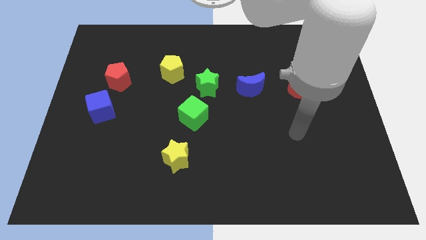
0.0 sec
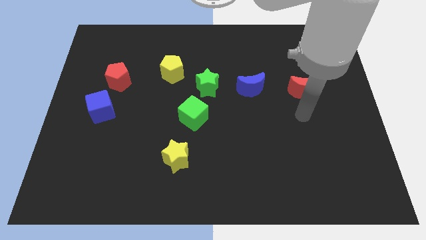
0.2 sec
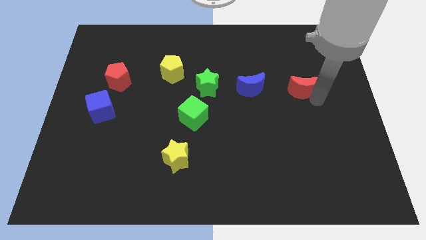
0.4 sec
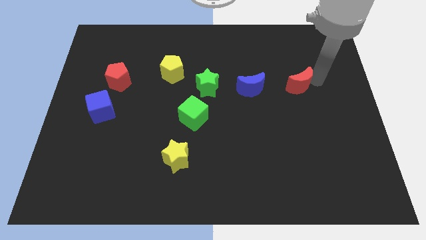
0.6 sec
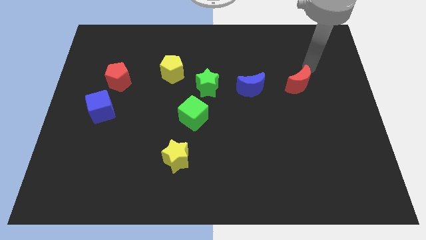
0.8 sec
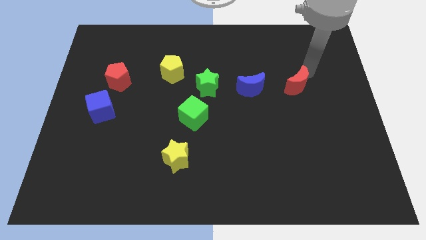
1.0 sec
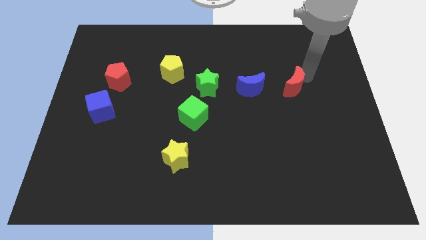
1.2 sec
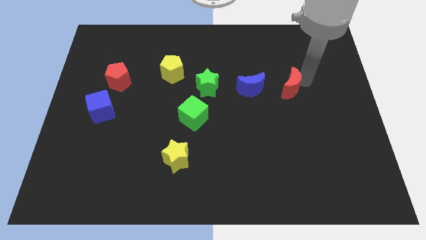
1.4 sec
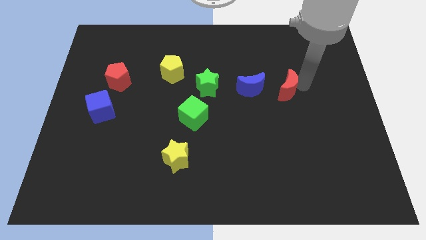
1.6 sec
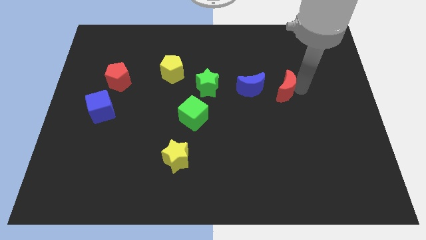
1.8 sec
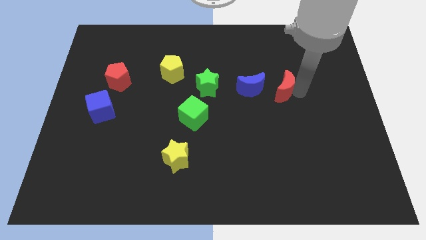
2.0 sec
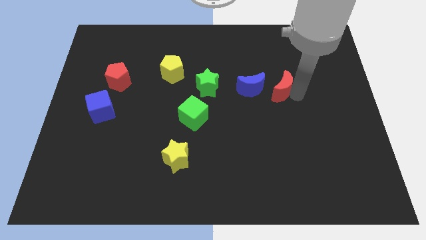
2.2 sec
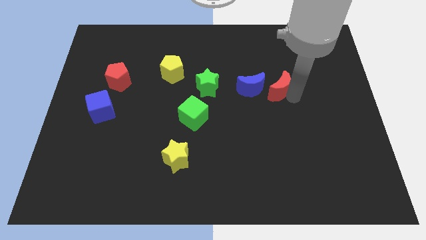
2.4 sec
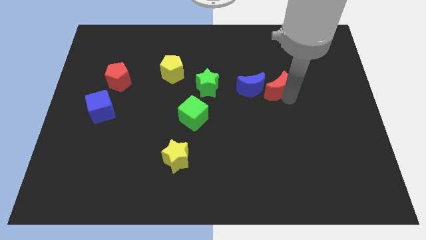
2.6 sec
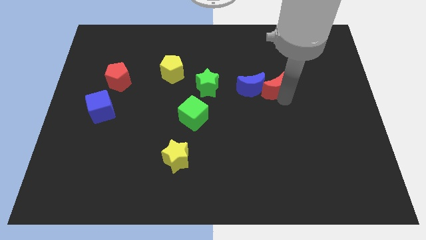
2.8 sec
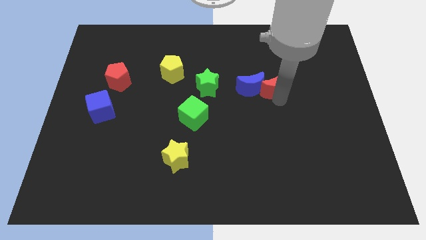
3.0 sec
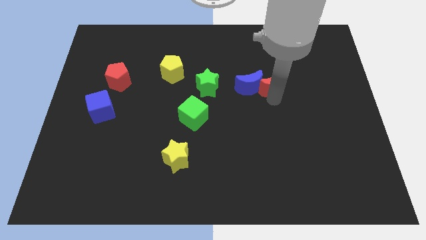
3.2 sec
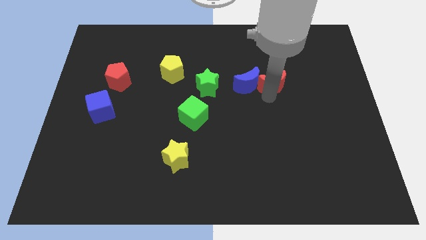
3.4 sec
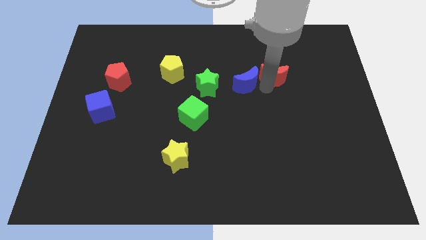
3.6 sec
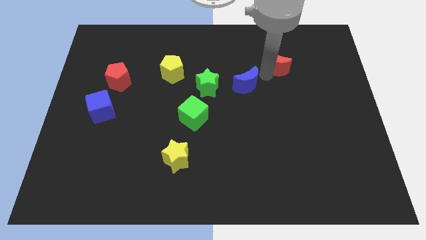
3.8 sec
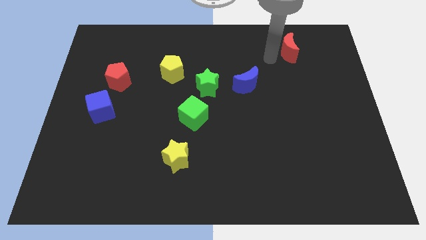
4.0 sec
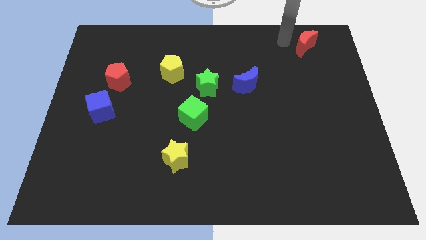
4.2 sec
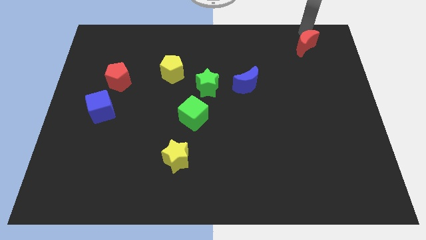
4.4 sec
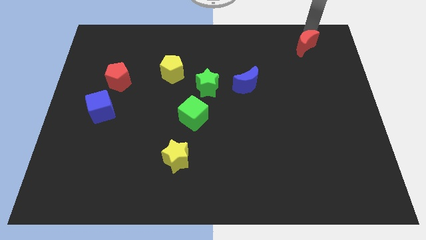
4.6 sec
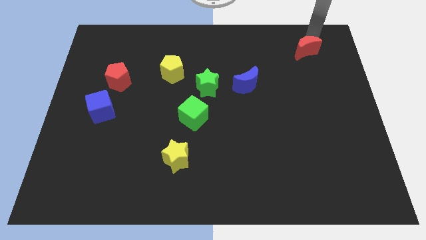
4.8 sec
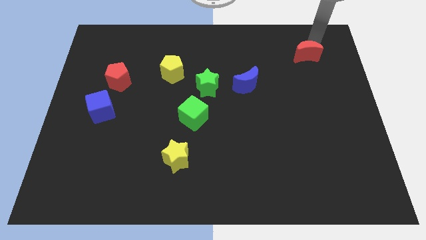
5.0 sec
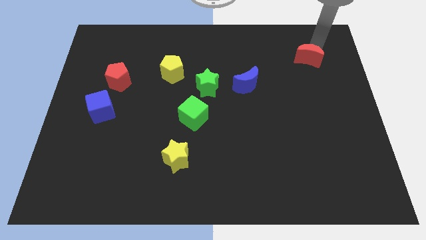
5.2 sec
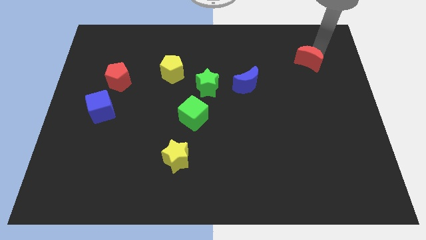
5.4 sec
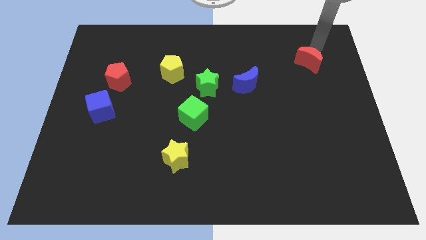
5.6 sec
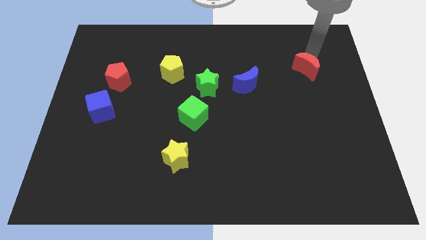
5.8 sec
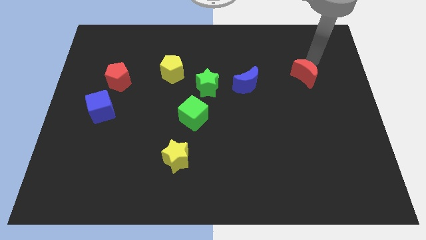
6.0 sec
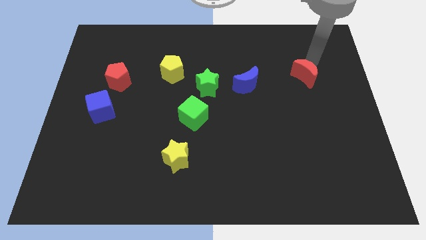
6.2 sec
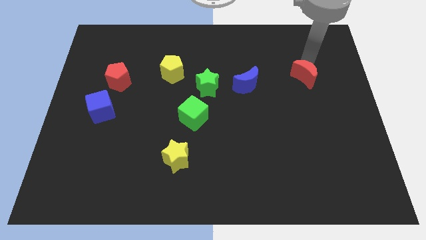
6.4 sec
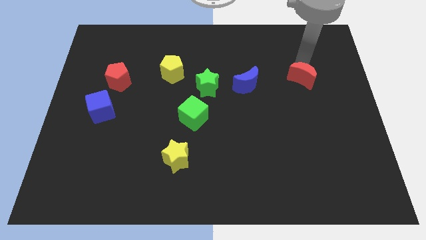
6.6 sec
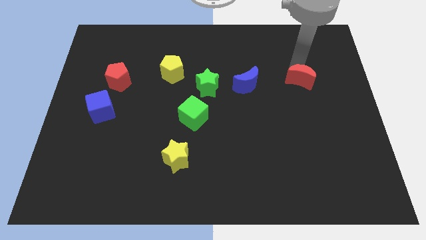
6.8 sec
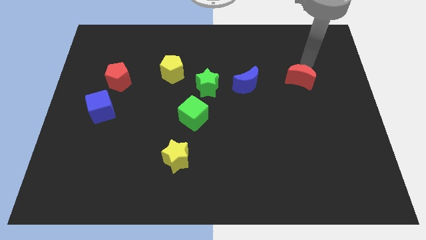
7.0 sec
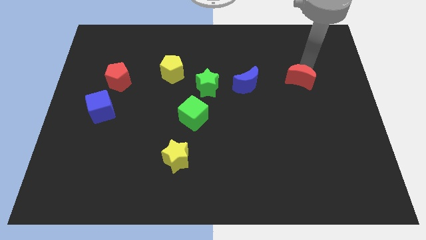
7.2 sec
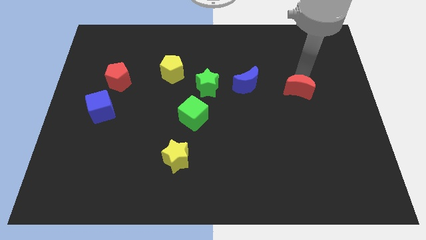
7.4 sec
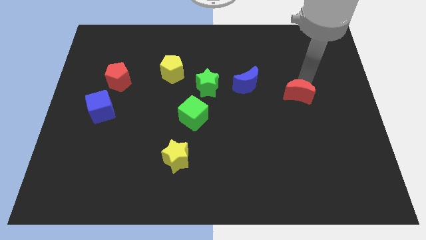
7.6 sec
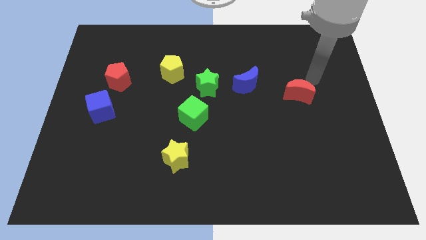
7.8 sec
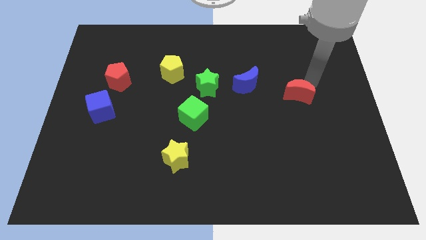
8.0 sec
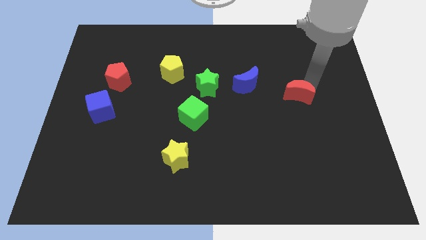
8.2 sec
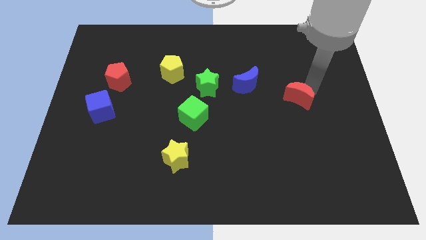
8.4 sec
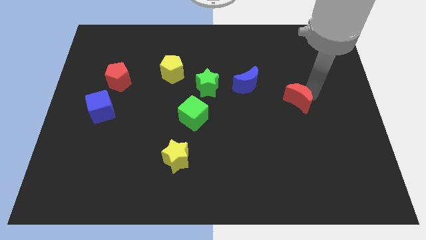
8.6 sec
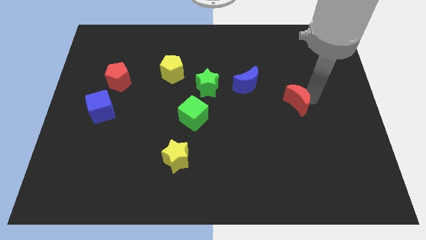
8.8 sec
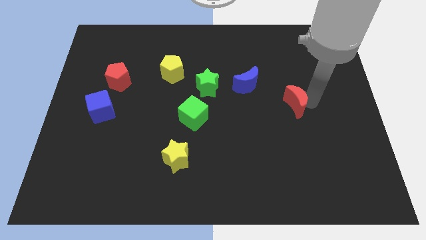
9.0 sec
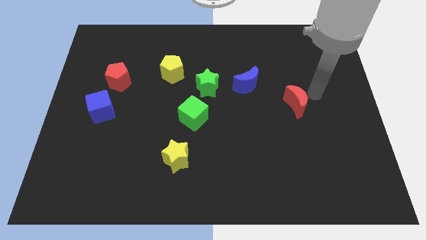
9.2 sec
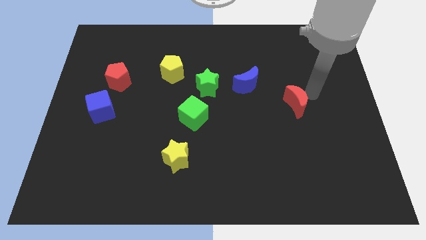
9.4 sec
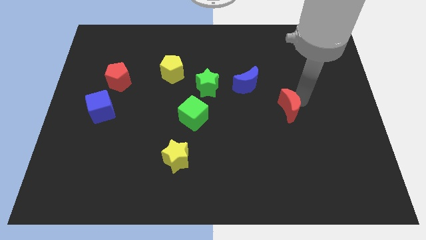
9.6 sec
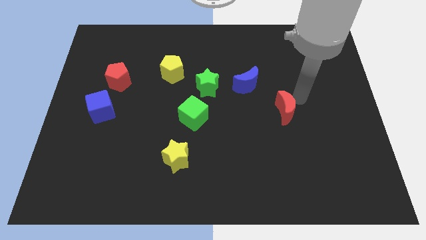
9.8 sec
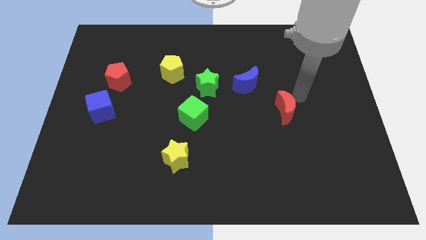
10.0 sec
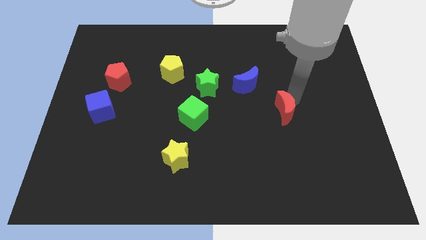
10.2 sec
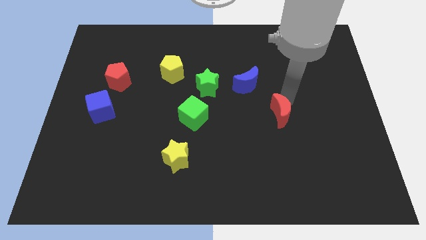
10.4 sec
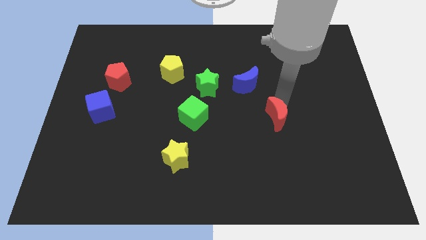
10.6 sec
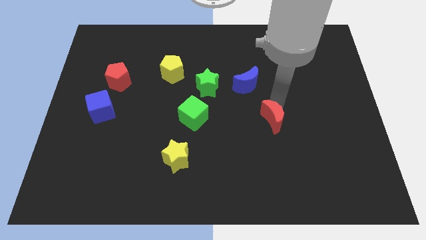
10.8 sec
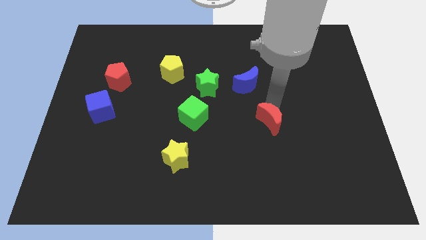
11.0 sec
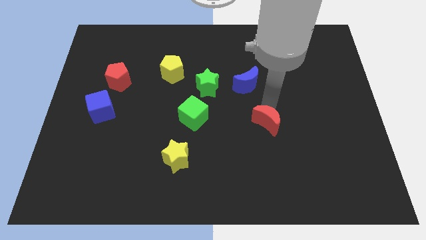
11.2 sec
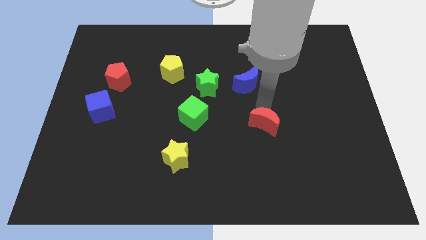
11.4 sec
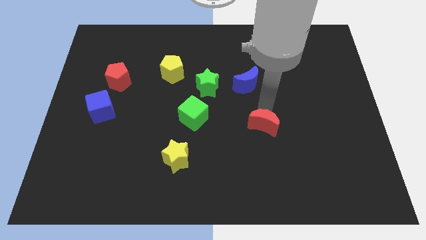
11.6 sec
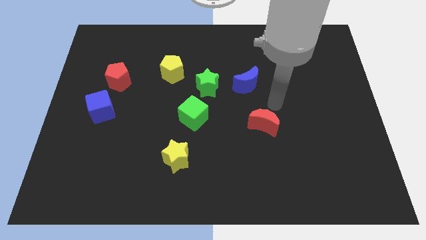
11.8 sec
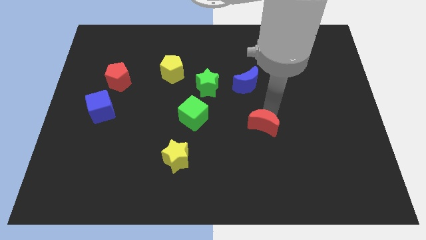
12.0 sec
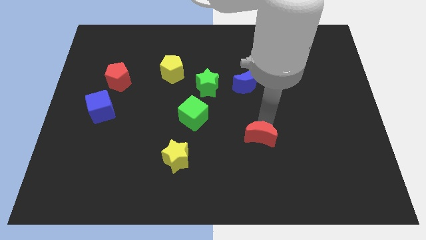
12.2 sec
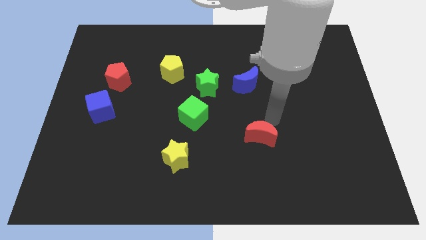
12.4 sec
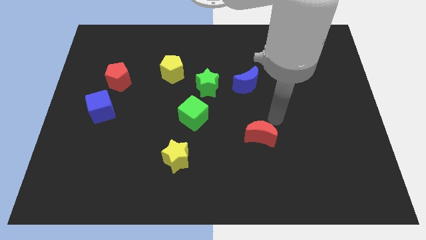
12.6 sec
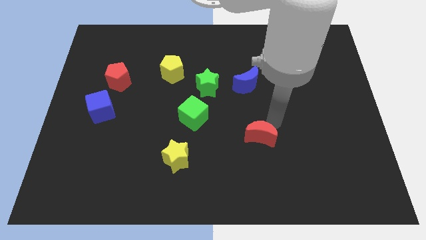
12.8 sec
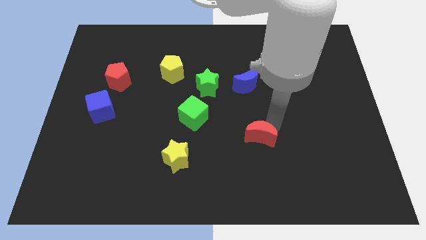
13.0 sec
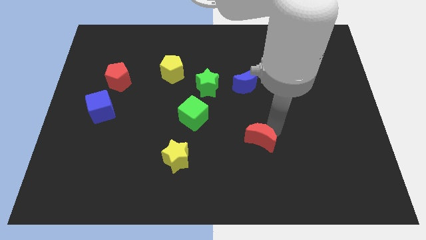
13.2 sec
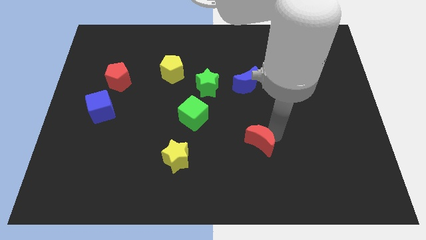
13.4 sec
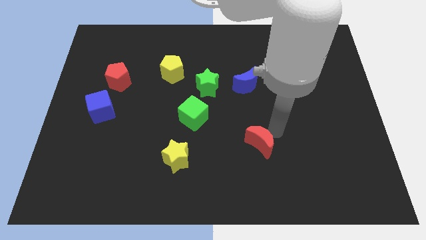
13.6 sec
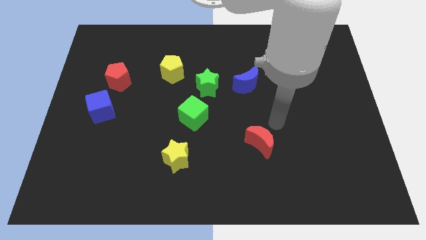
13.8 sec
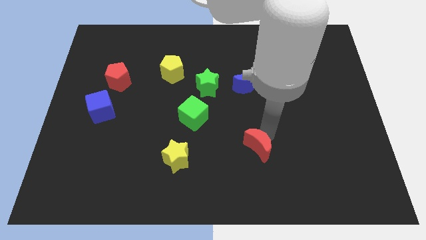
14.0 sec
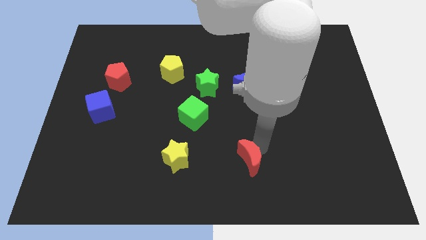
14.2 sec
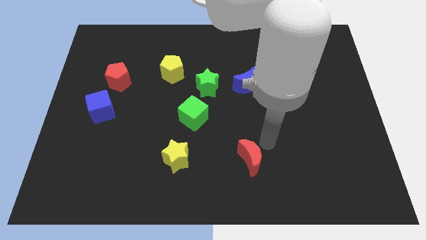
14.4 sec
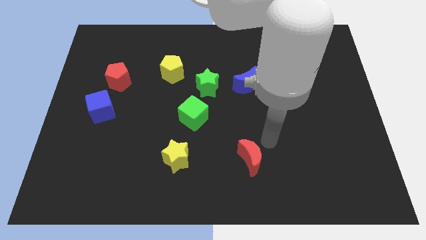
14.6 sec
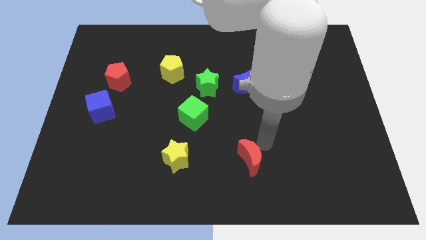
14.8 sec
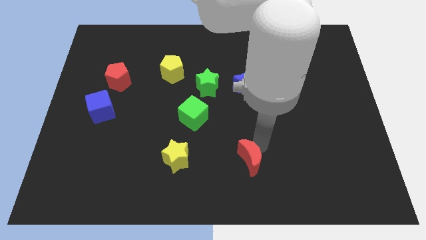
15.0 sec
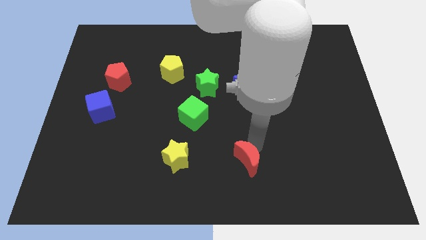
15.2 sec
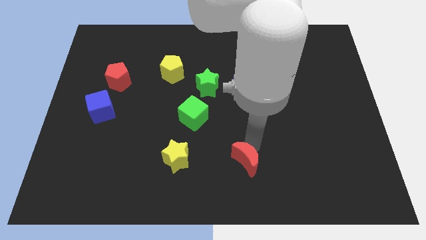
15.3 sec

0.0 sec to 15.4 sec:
push the red moon to the bottom side
